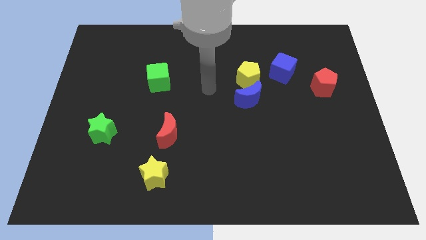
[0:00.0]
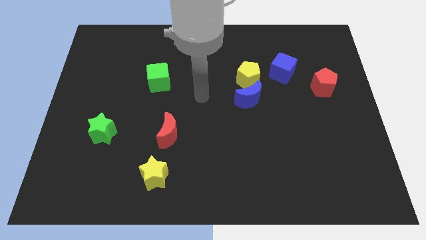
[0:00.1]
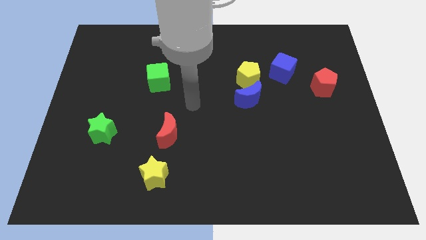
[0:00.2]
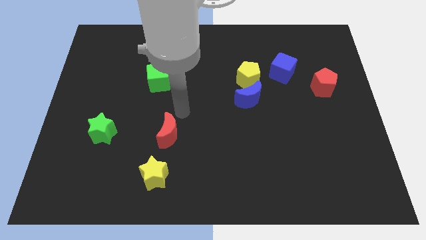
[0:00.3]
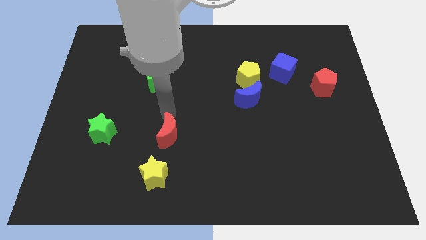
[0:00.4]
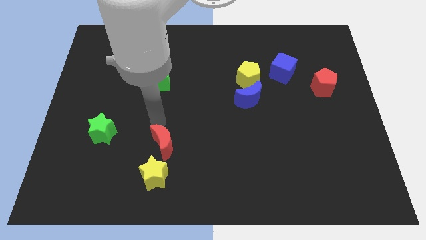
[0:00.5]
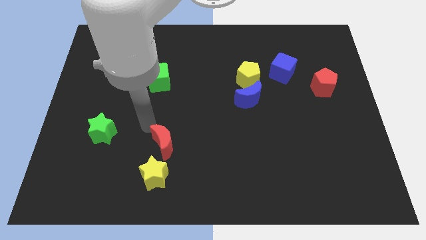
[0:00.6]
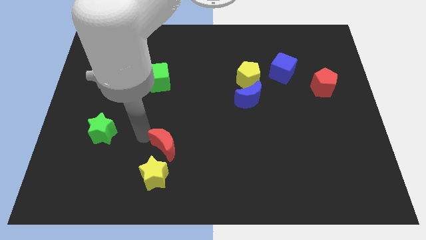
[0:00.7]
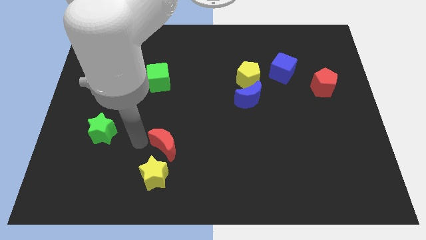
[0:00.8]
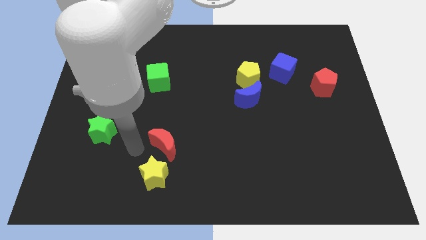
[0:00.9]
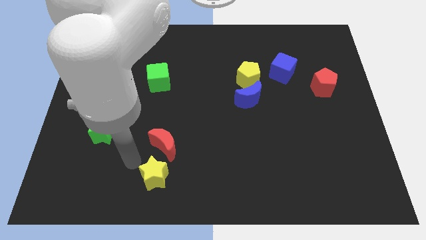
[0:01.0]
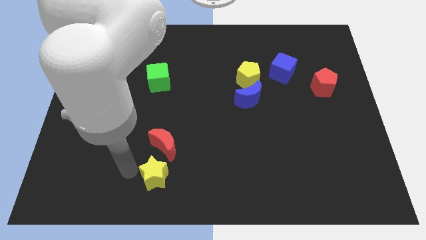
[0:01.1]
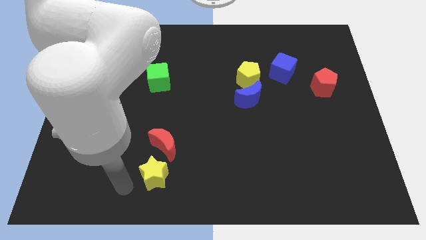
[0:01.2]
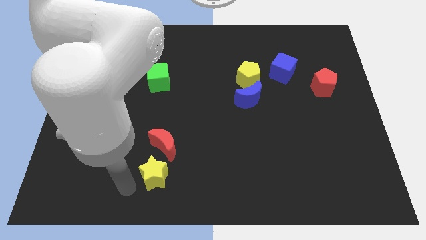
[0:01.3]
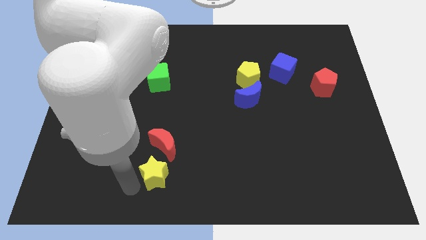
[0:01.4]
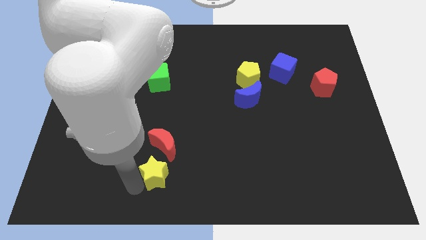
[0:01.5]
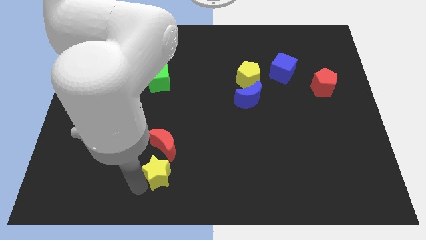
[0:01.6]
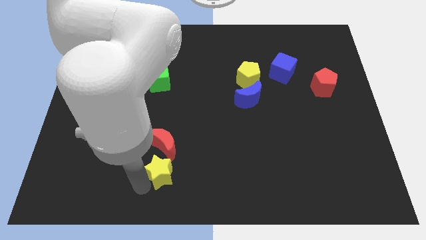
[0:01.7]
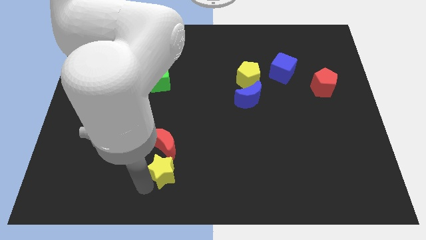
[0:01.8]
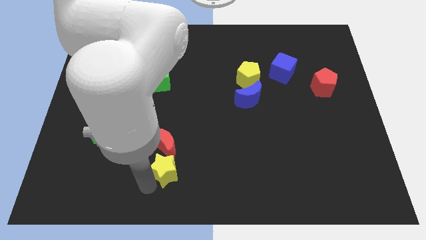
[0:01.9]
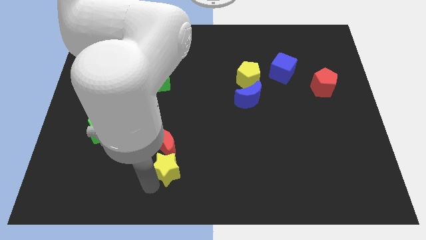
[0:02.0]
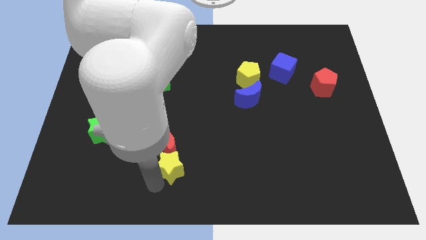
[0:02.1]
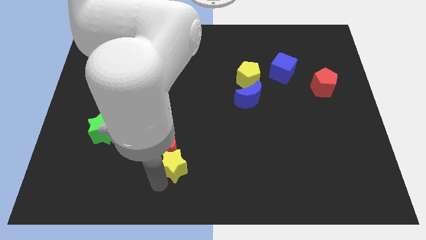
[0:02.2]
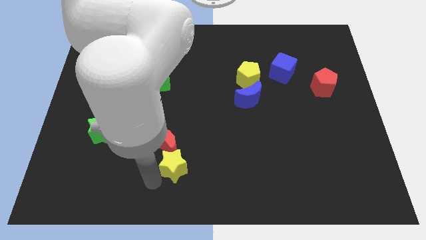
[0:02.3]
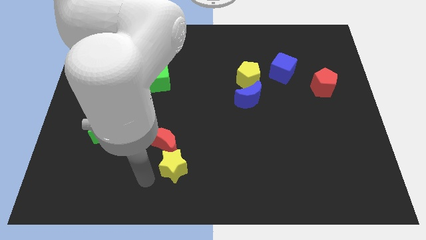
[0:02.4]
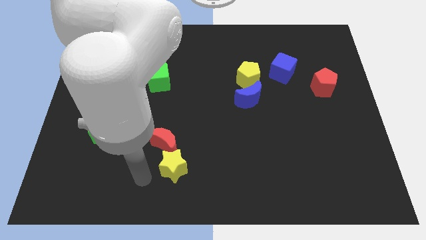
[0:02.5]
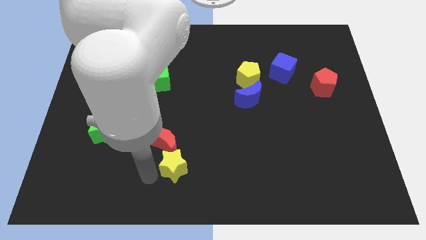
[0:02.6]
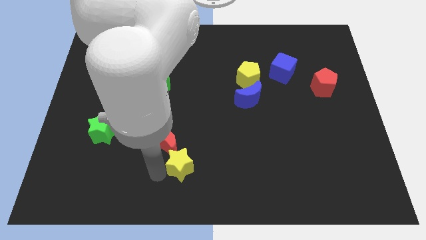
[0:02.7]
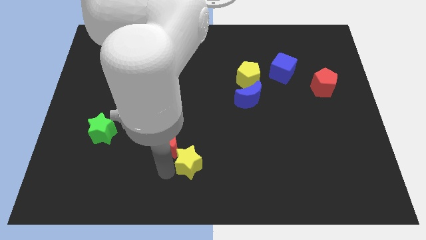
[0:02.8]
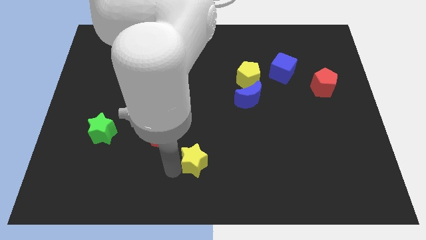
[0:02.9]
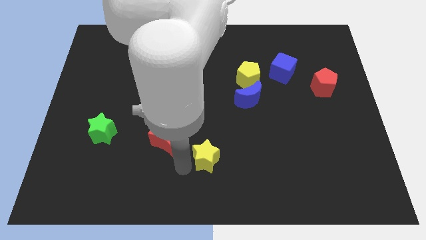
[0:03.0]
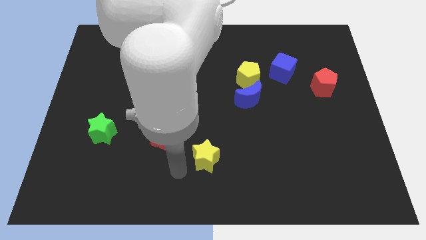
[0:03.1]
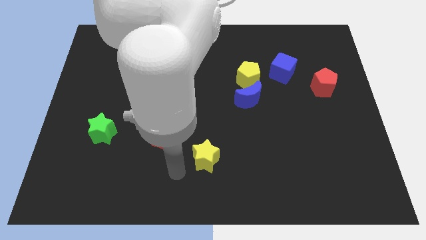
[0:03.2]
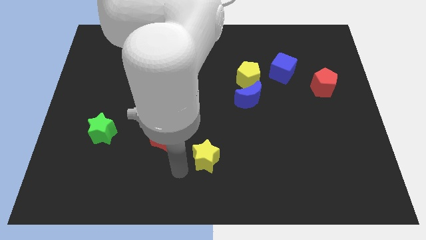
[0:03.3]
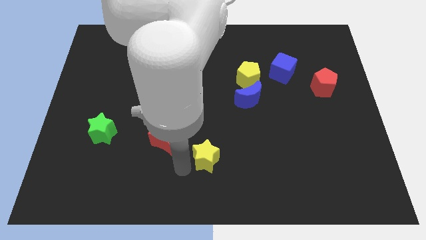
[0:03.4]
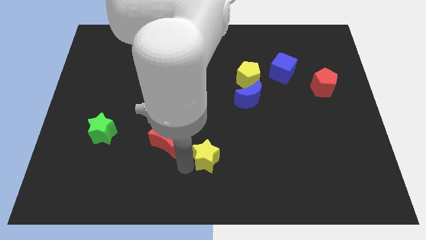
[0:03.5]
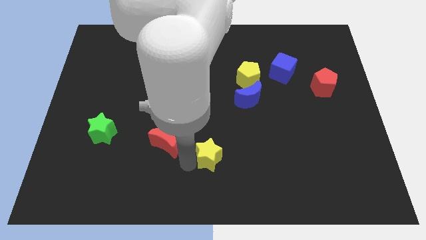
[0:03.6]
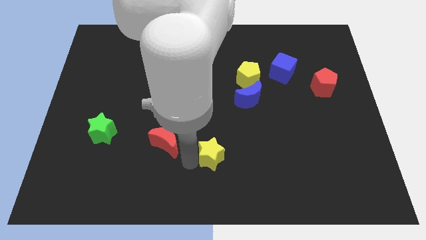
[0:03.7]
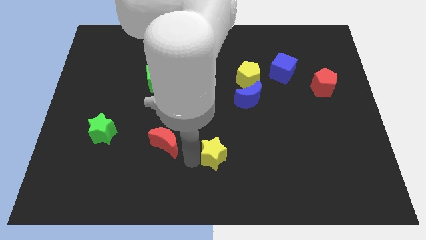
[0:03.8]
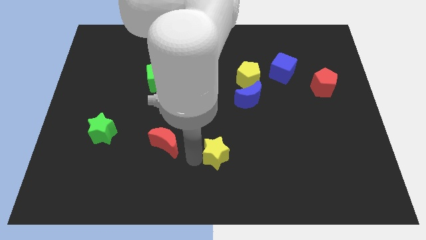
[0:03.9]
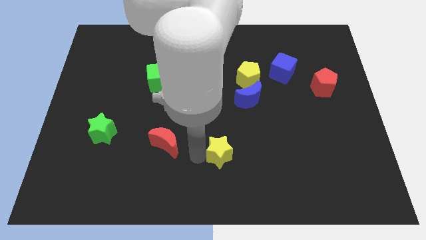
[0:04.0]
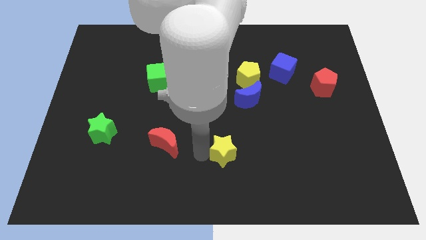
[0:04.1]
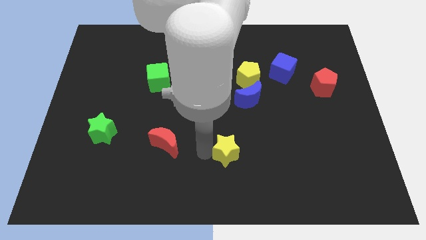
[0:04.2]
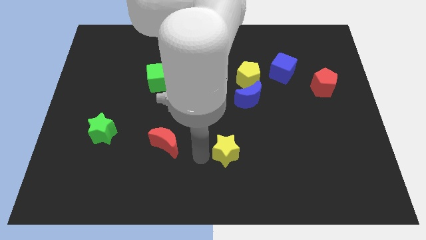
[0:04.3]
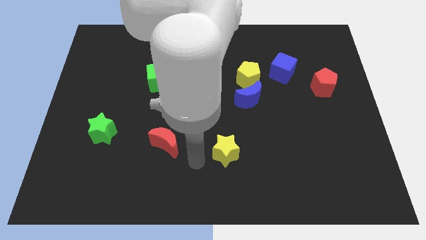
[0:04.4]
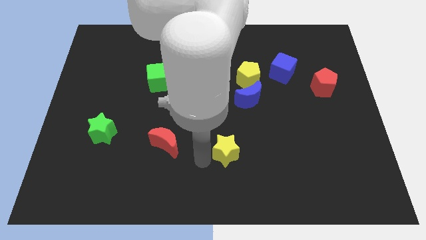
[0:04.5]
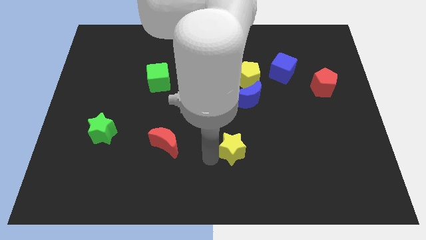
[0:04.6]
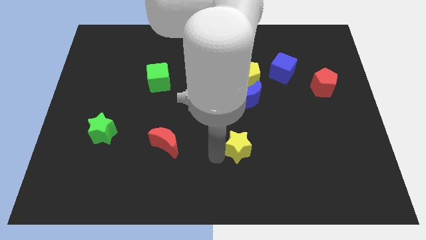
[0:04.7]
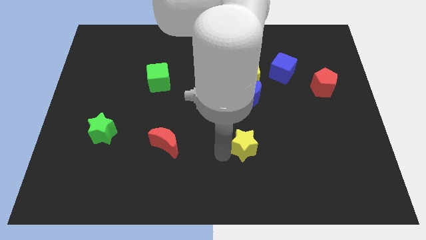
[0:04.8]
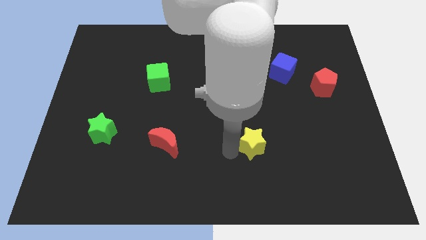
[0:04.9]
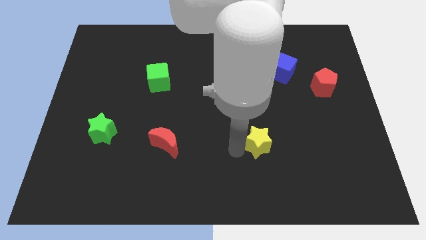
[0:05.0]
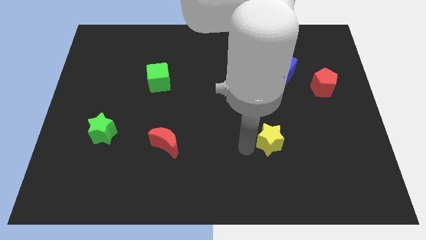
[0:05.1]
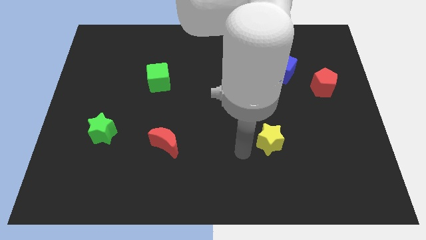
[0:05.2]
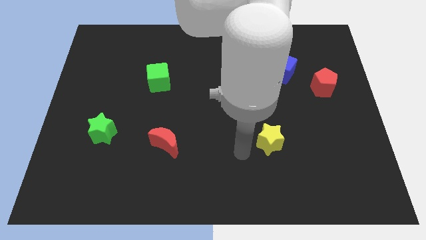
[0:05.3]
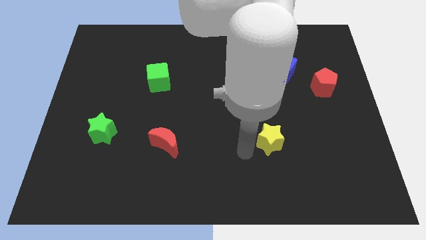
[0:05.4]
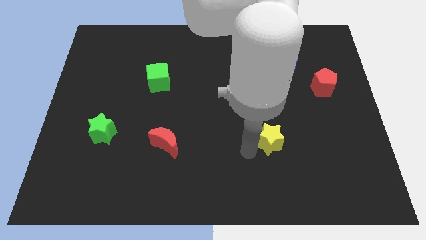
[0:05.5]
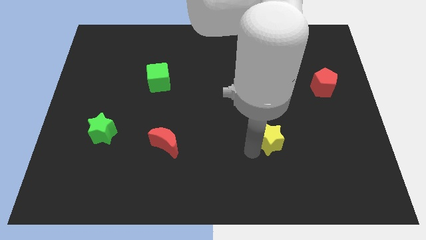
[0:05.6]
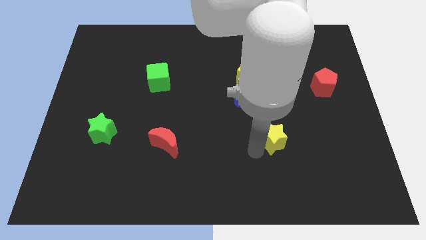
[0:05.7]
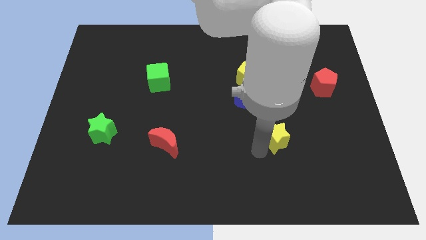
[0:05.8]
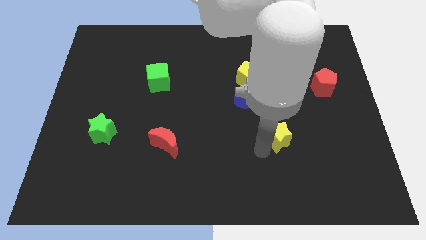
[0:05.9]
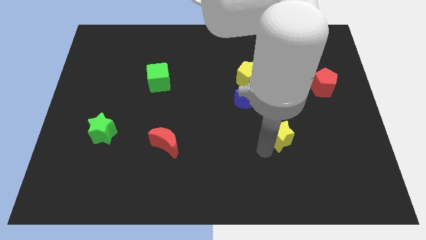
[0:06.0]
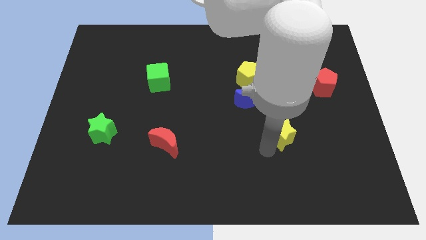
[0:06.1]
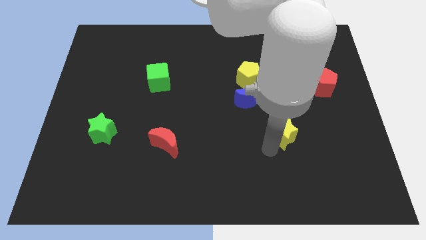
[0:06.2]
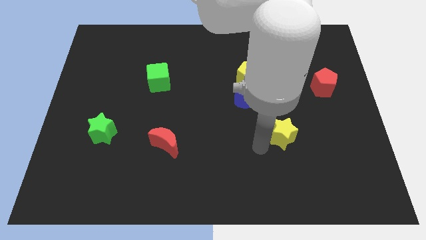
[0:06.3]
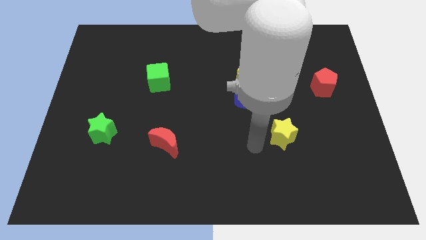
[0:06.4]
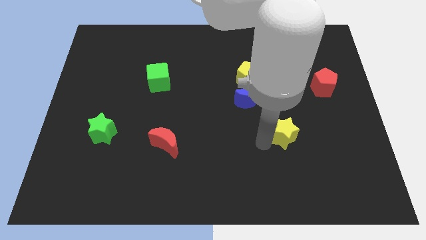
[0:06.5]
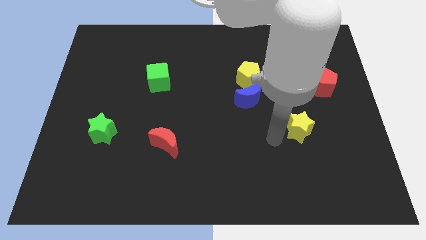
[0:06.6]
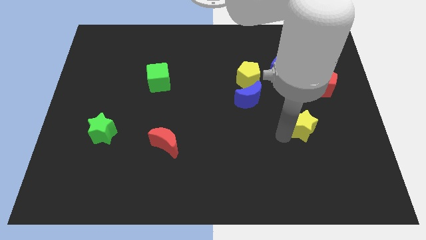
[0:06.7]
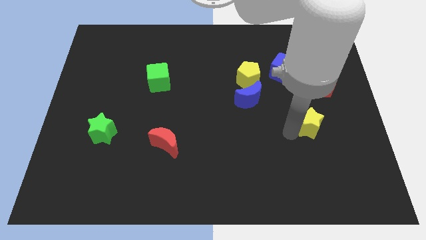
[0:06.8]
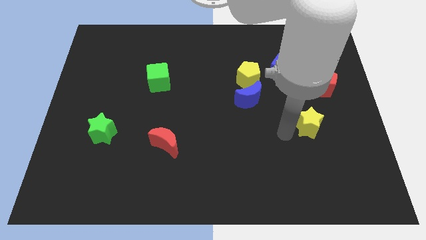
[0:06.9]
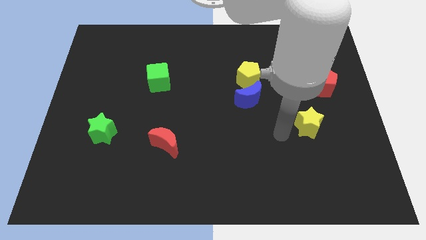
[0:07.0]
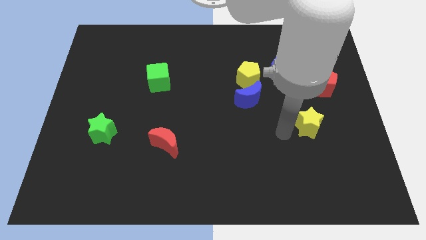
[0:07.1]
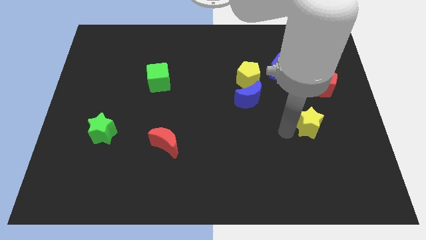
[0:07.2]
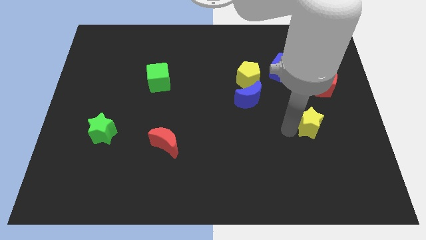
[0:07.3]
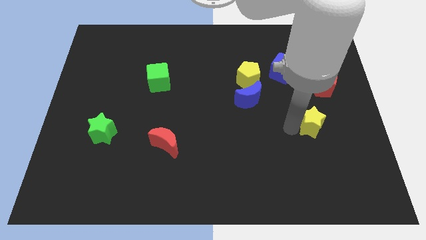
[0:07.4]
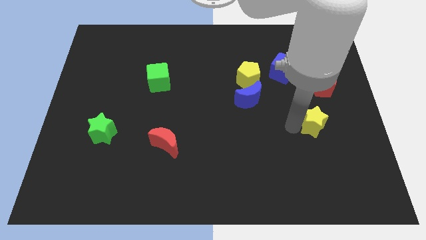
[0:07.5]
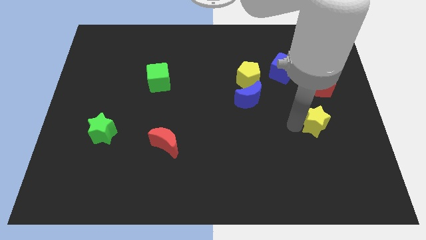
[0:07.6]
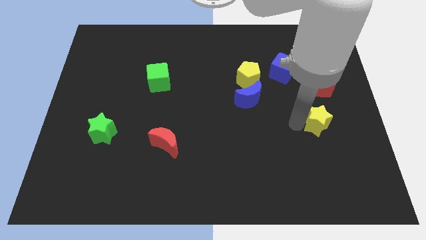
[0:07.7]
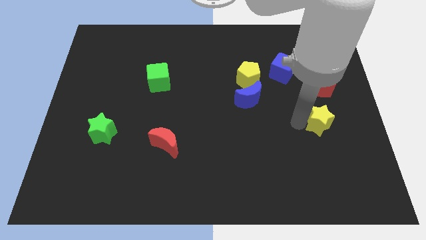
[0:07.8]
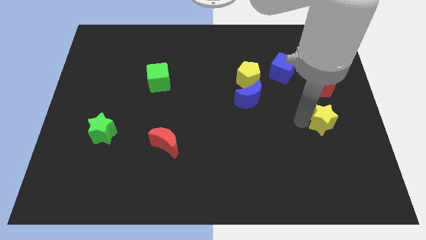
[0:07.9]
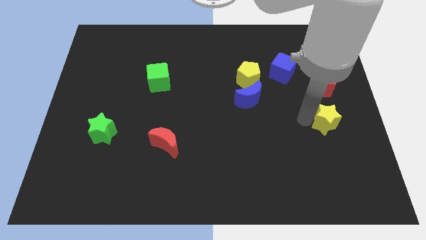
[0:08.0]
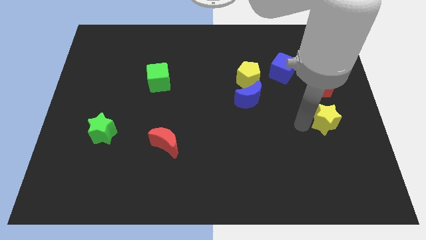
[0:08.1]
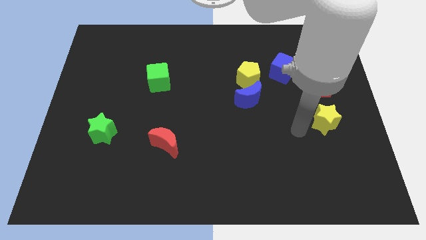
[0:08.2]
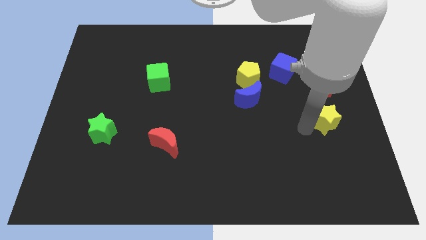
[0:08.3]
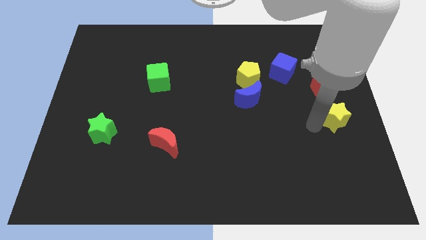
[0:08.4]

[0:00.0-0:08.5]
push the yellow star to the right side
